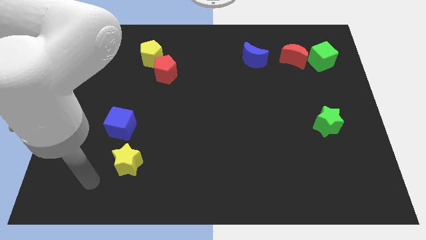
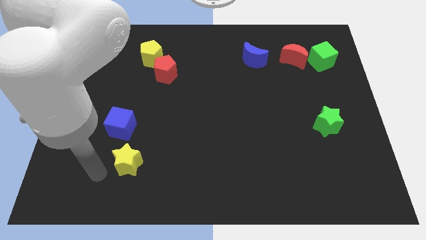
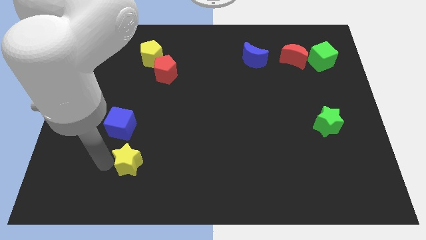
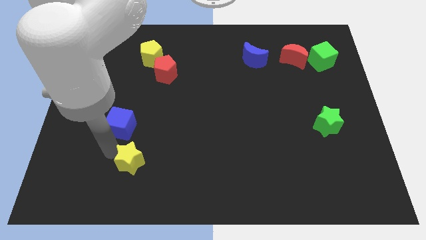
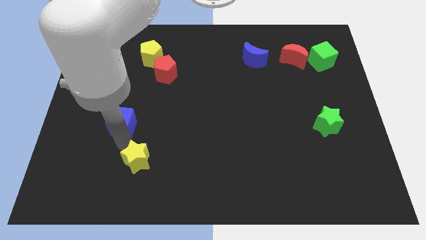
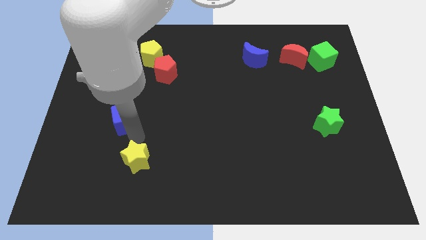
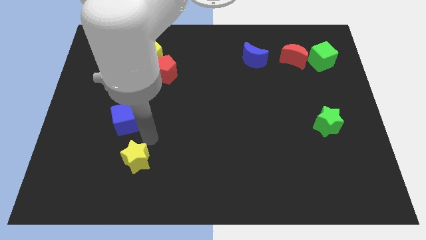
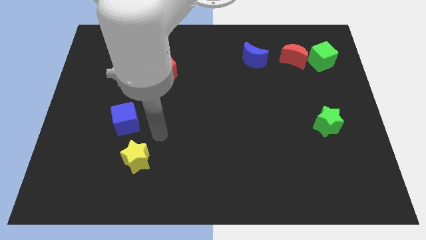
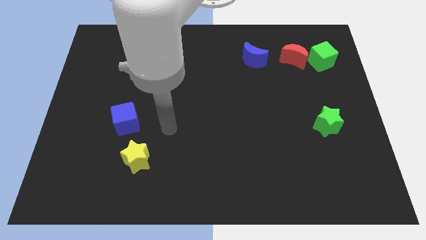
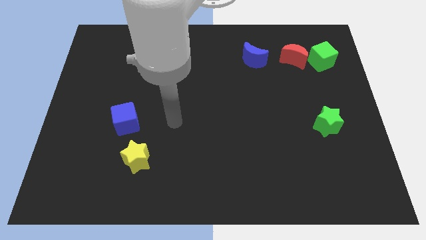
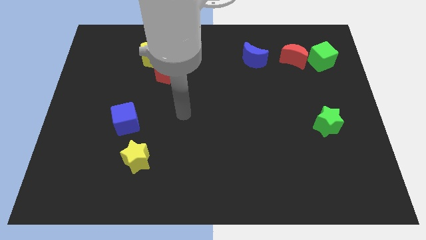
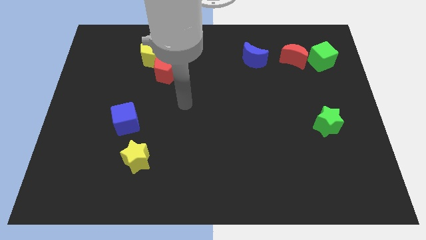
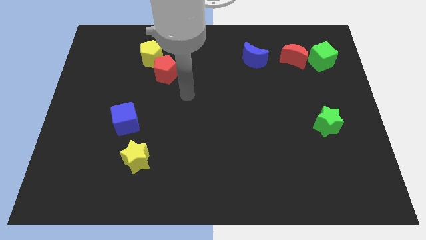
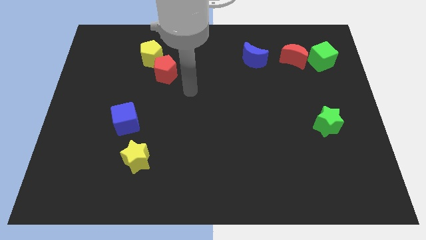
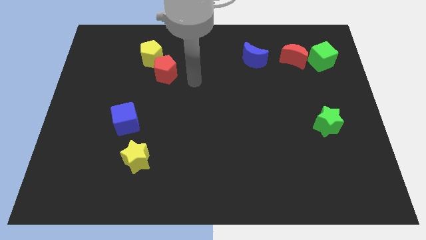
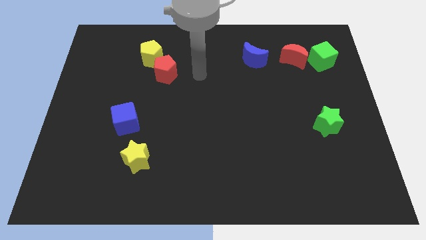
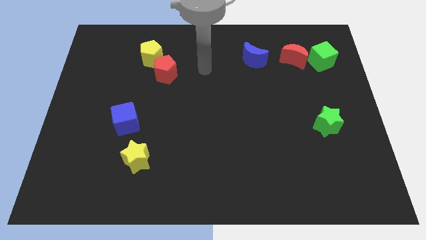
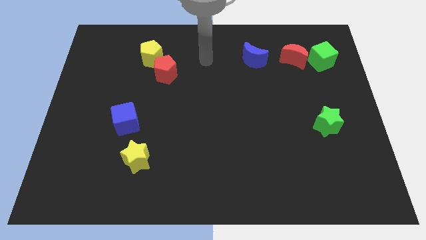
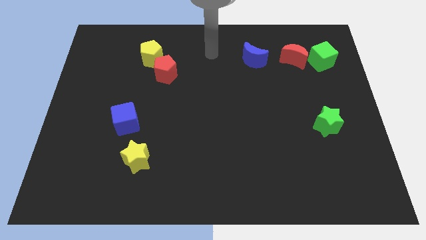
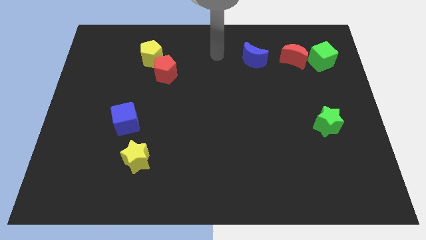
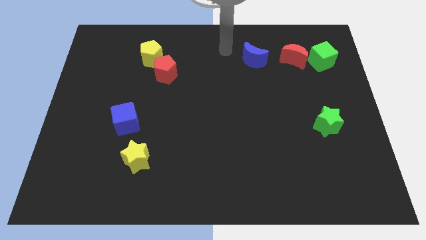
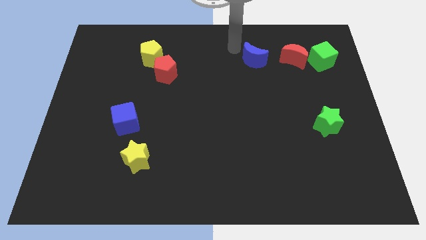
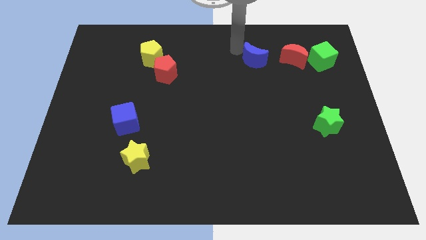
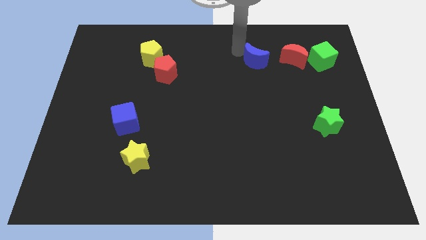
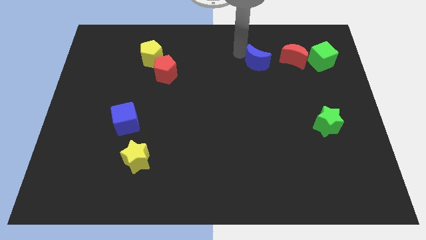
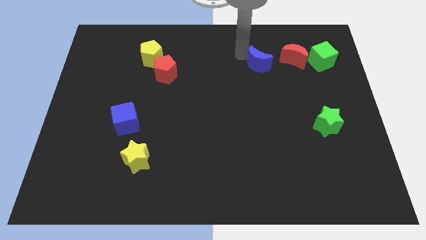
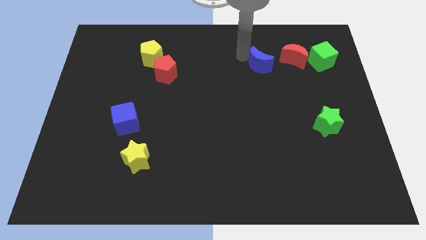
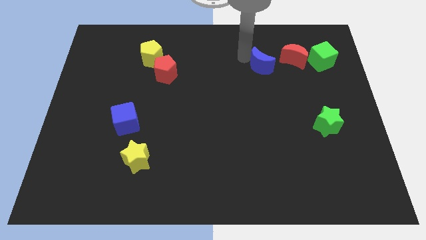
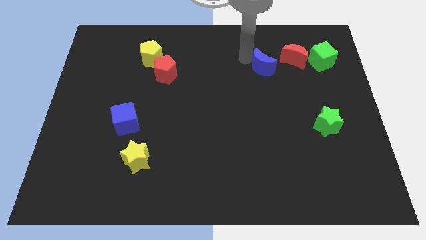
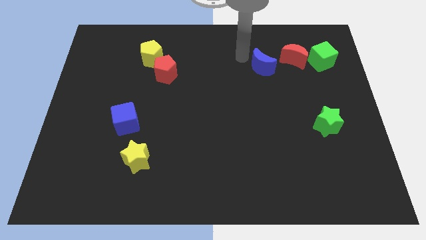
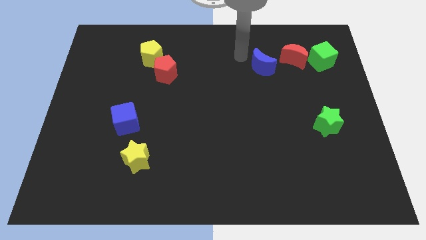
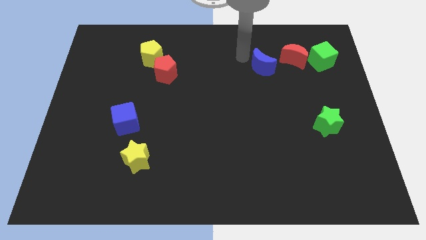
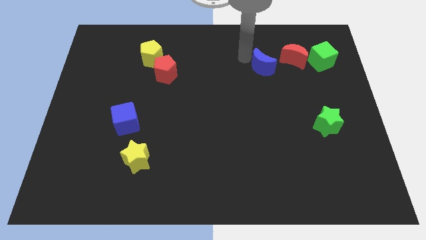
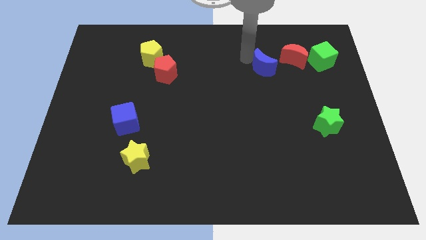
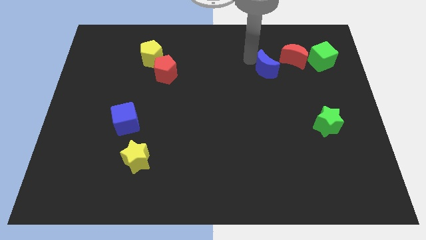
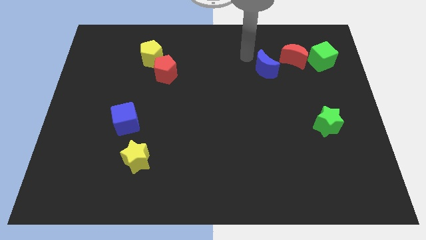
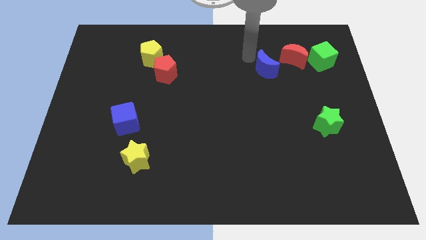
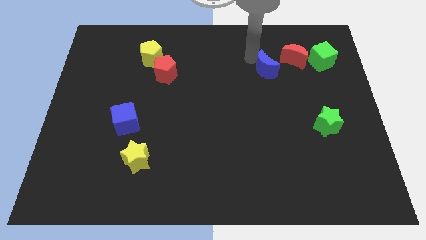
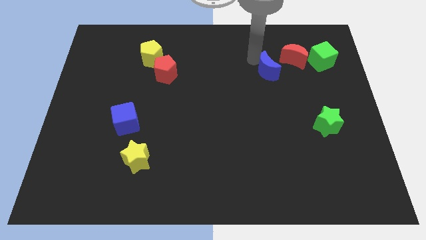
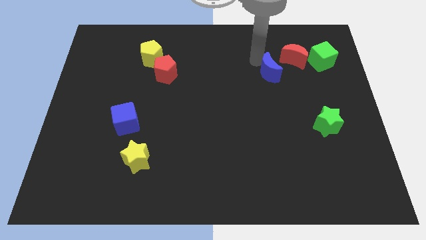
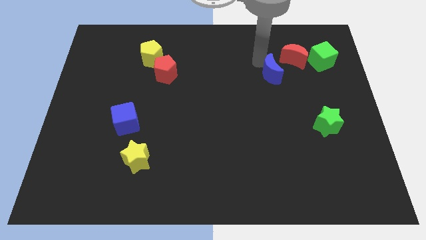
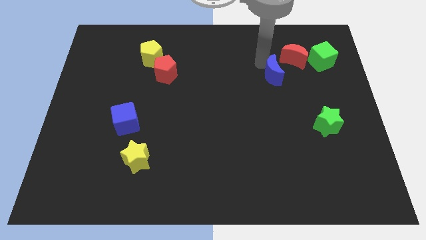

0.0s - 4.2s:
move the blue moon diagonally downwards and to the right somewhat

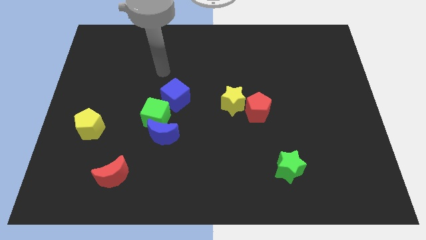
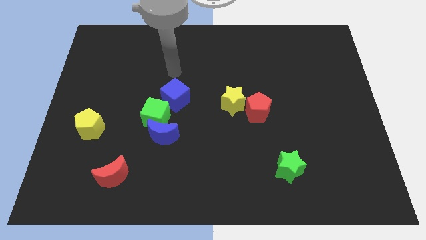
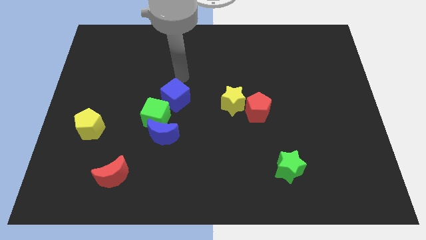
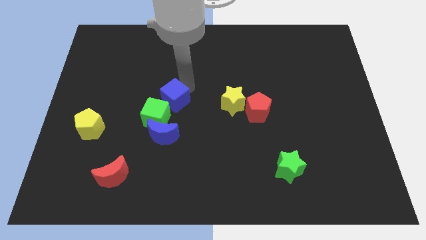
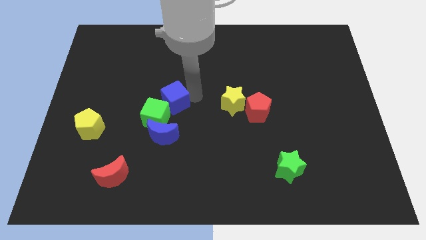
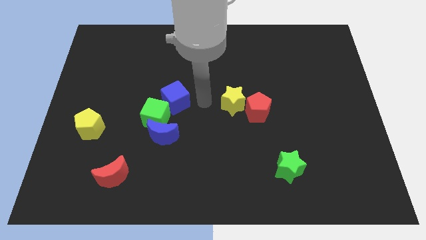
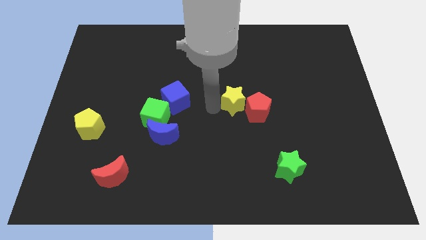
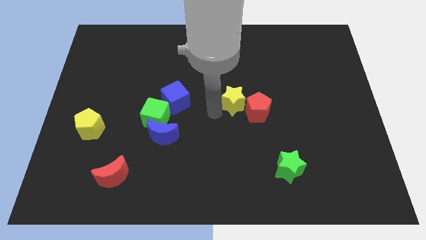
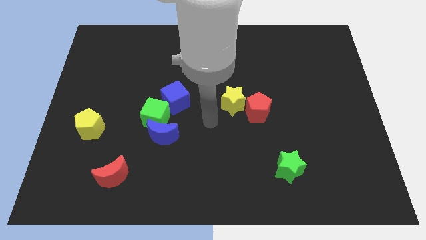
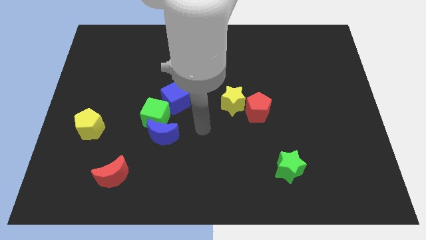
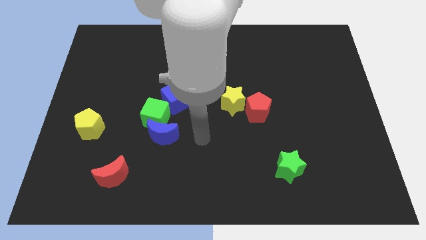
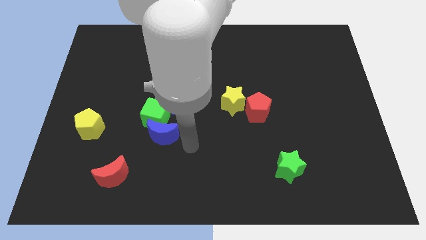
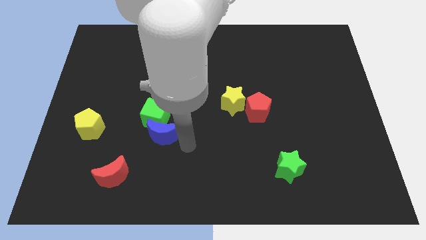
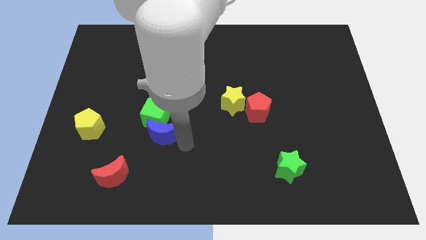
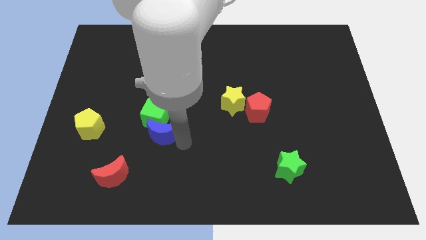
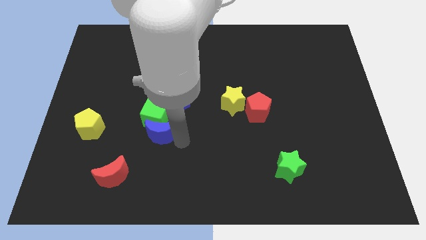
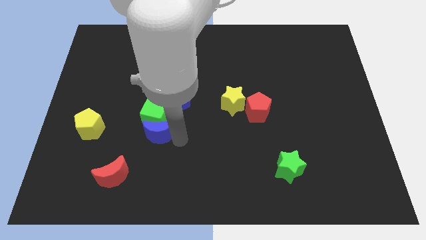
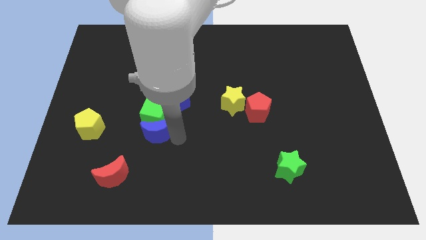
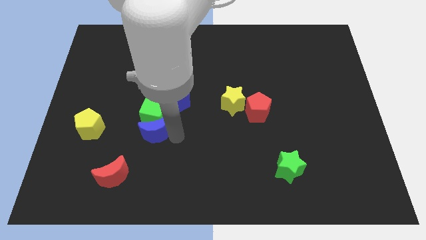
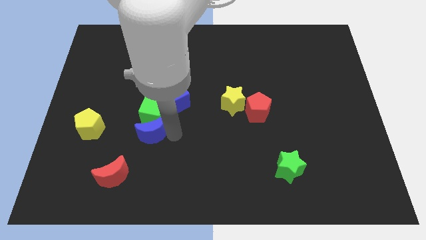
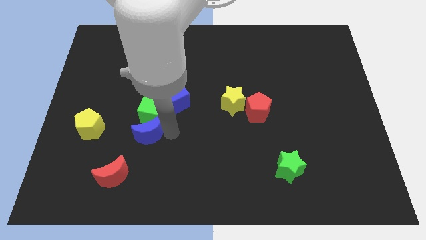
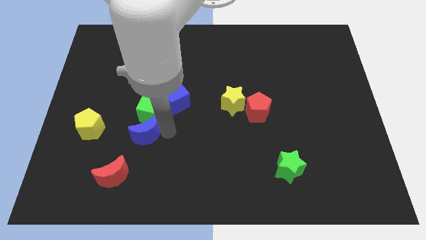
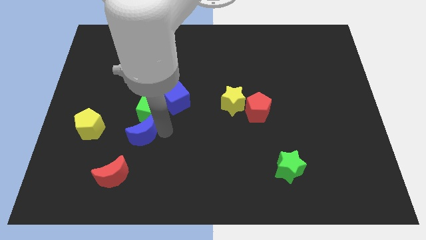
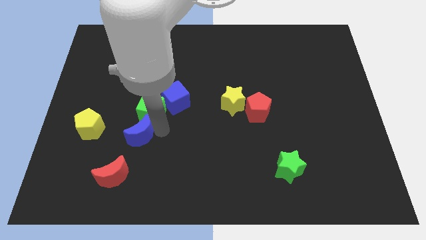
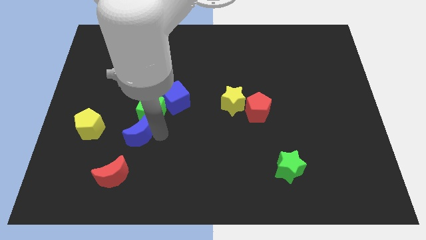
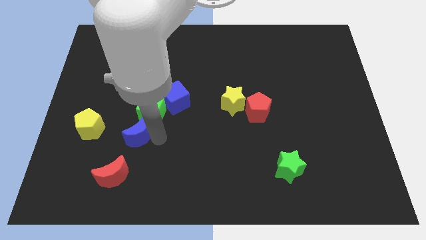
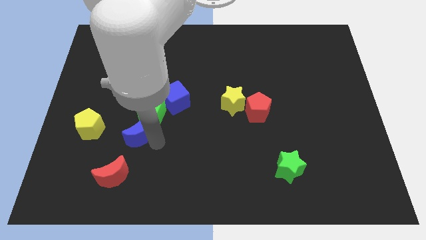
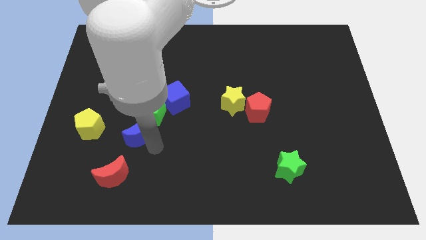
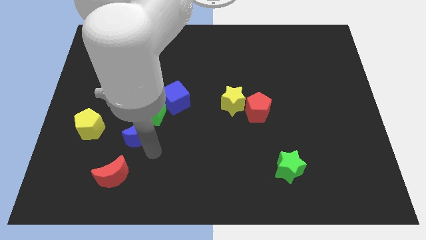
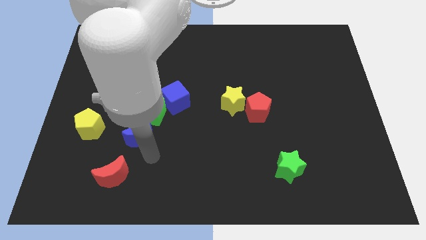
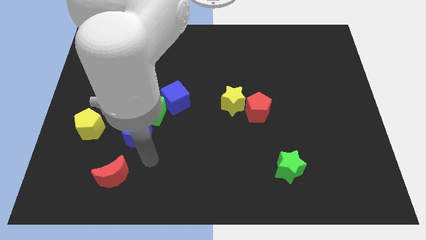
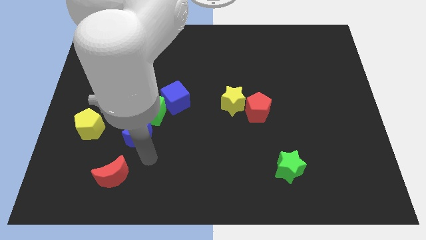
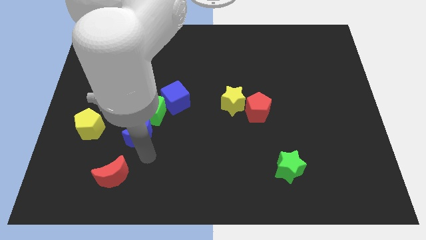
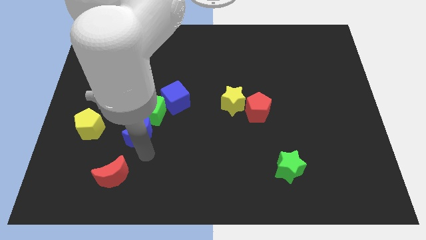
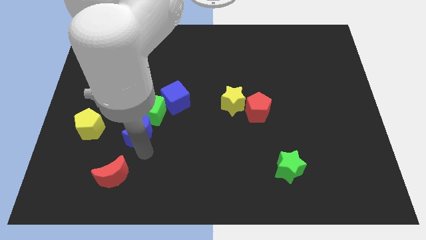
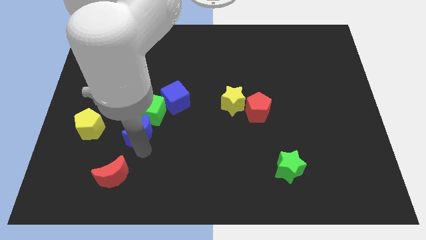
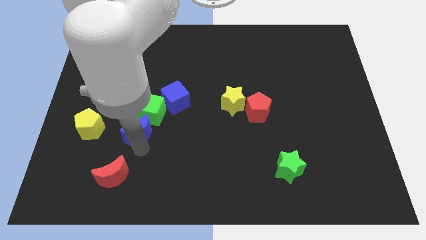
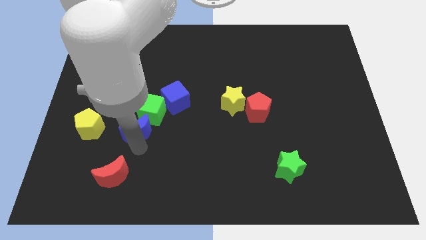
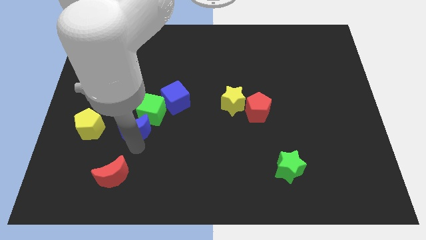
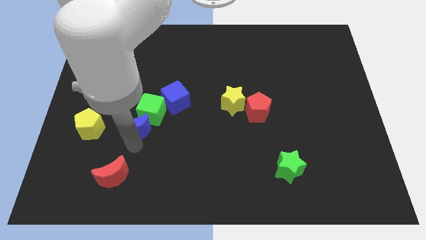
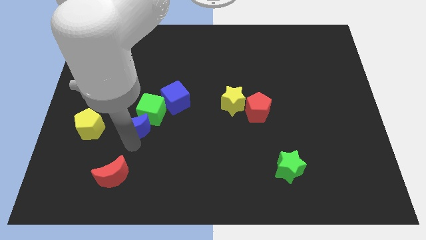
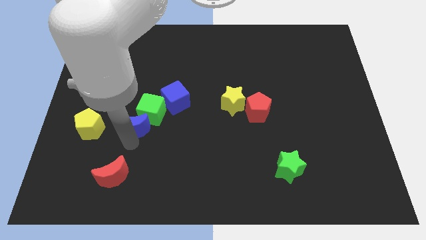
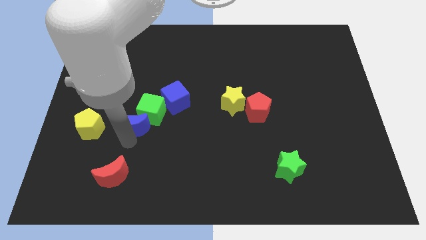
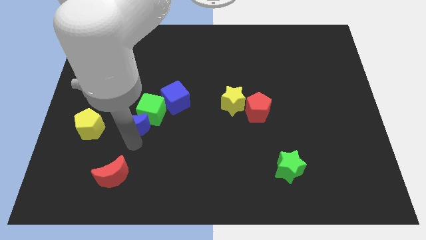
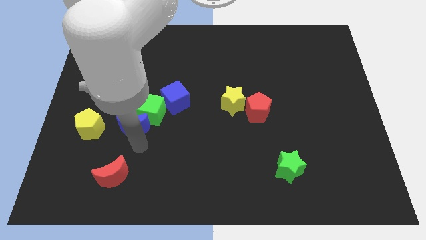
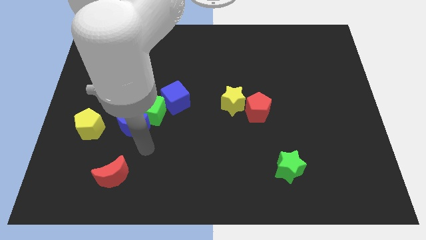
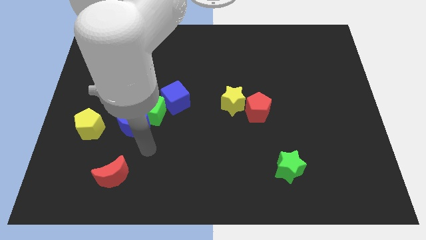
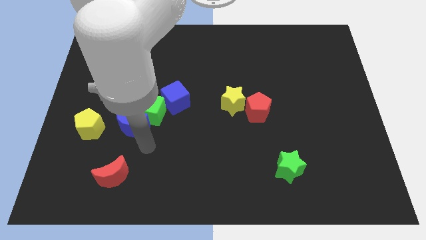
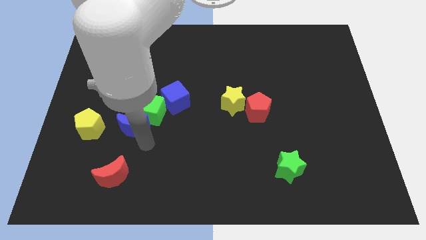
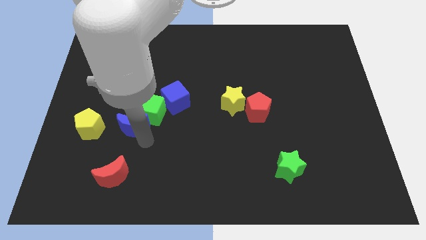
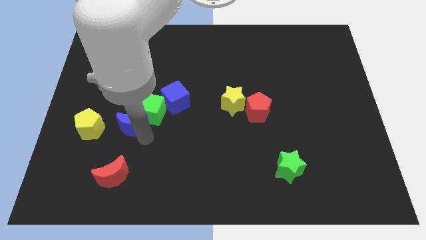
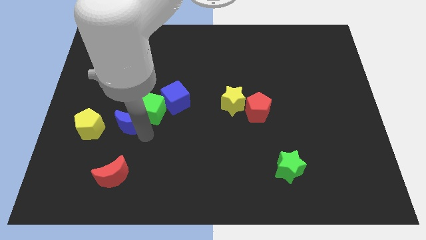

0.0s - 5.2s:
push the blue moon a little bit diagonally upwards and left
